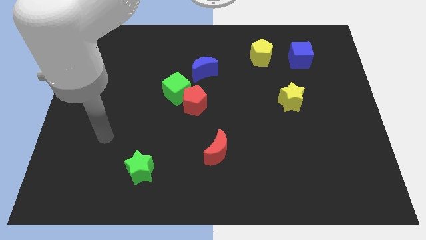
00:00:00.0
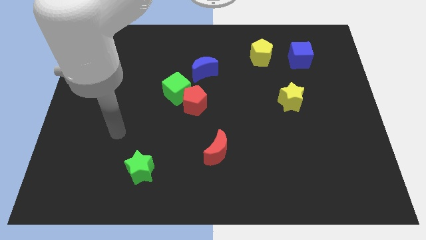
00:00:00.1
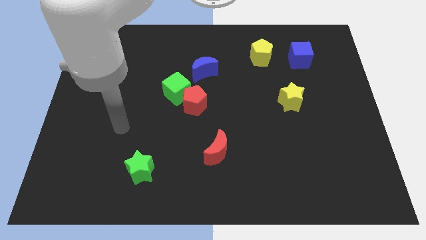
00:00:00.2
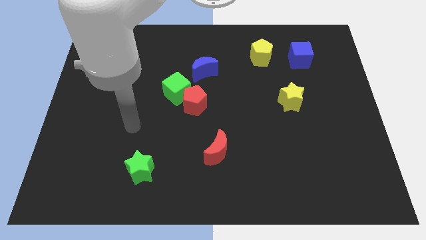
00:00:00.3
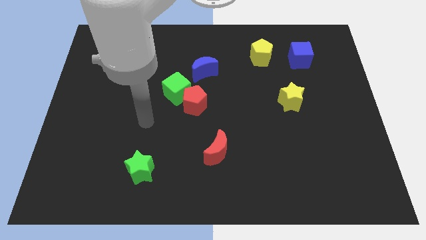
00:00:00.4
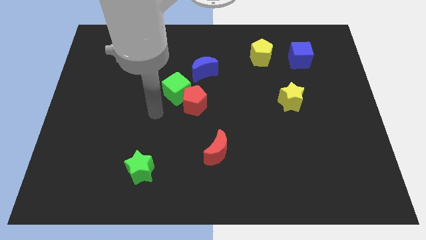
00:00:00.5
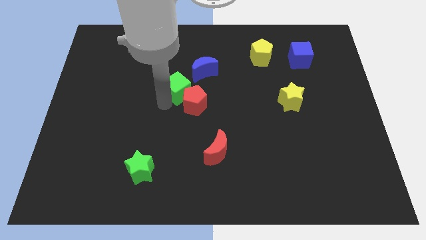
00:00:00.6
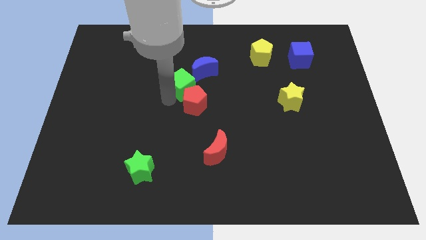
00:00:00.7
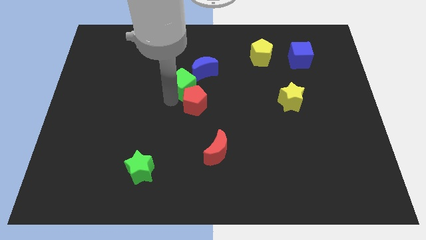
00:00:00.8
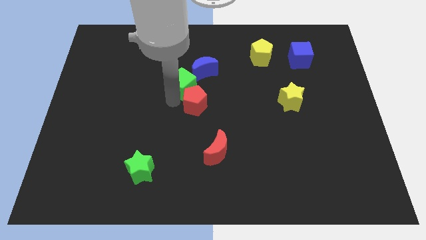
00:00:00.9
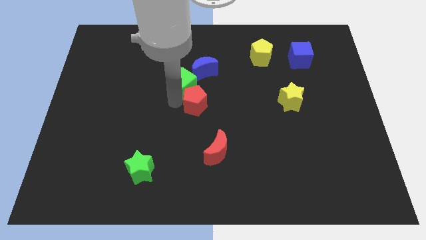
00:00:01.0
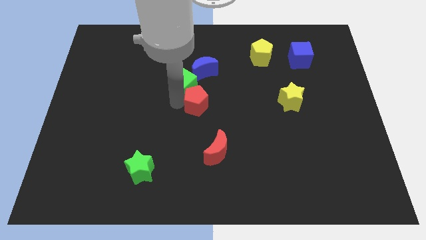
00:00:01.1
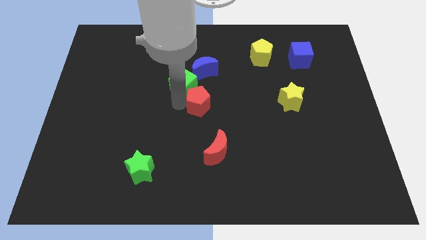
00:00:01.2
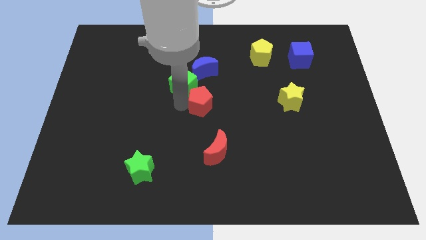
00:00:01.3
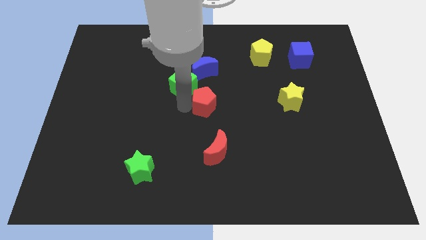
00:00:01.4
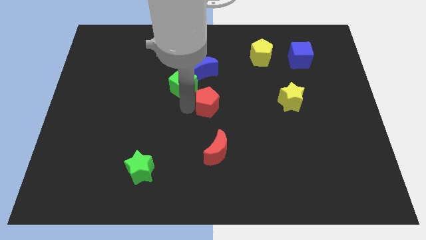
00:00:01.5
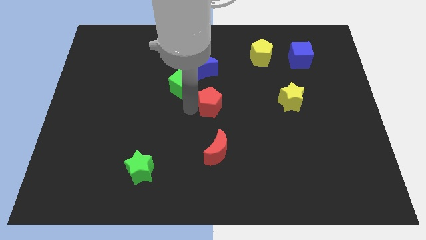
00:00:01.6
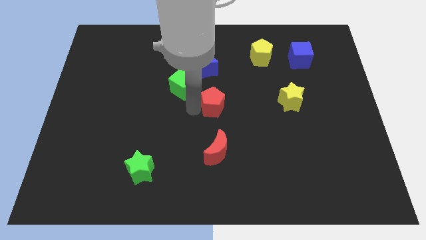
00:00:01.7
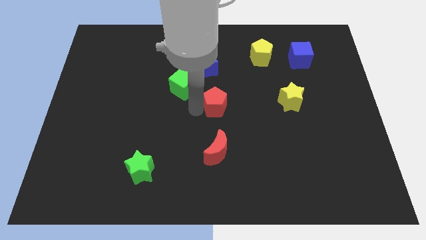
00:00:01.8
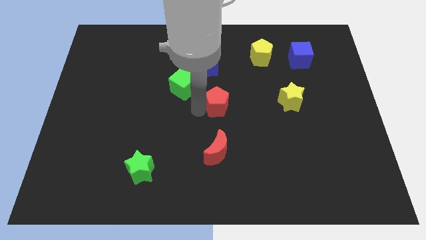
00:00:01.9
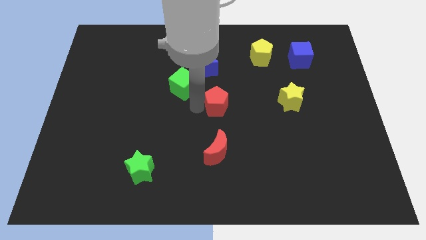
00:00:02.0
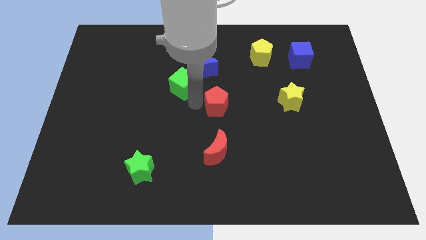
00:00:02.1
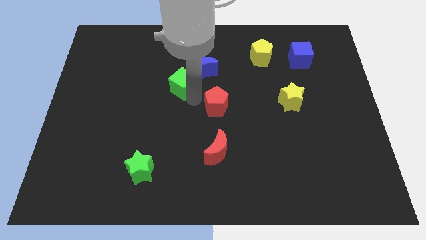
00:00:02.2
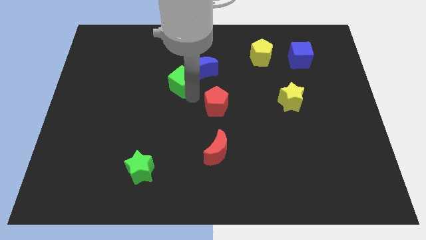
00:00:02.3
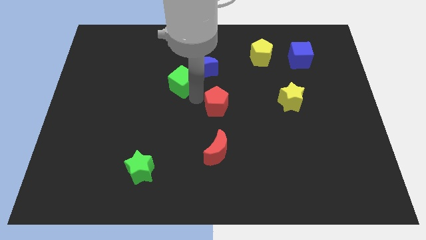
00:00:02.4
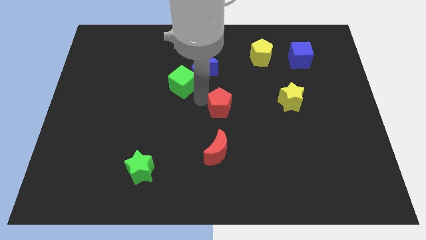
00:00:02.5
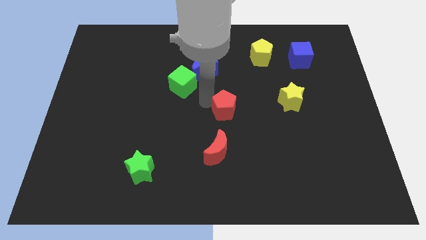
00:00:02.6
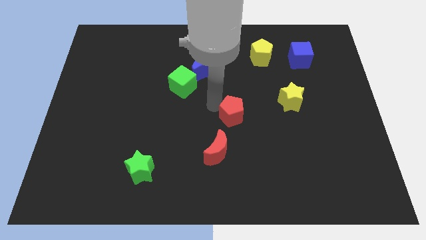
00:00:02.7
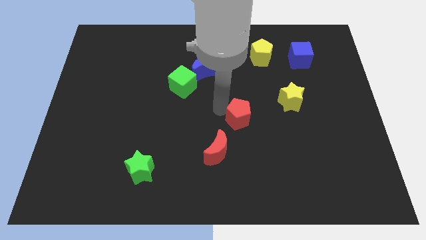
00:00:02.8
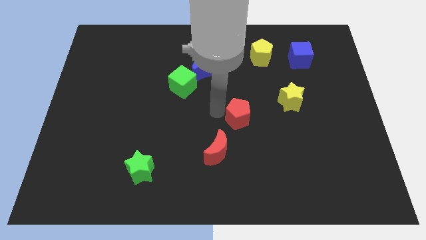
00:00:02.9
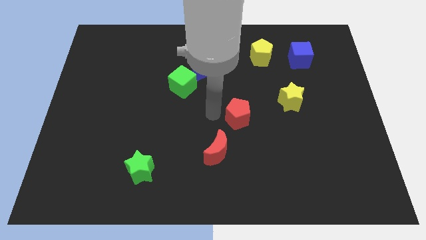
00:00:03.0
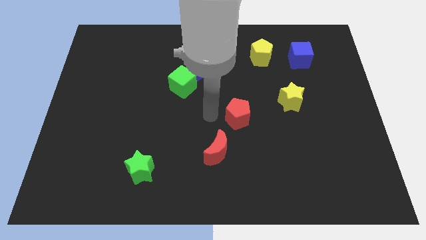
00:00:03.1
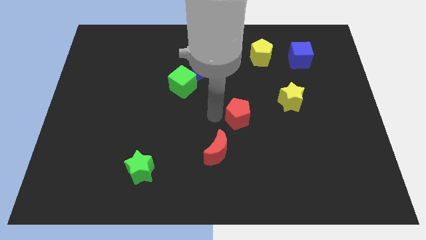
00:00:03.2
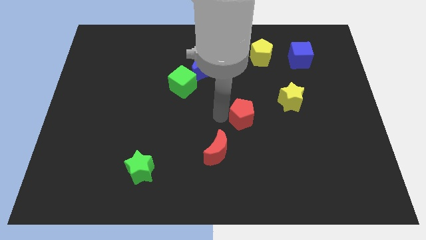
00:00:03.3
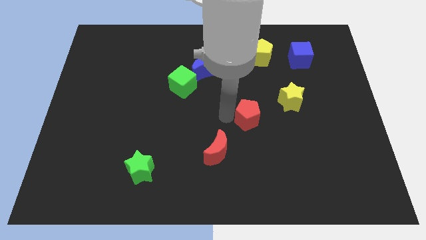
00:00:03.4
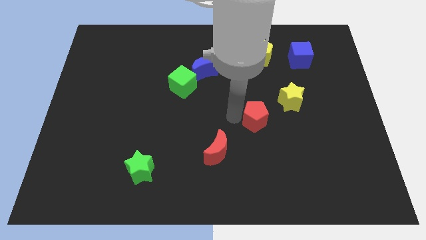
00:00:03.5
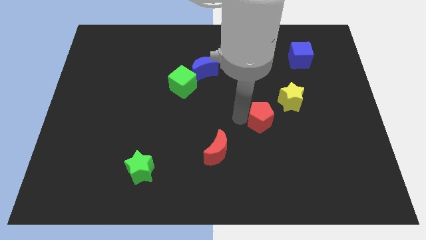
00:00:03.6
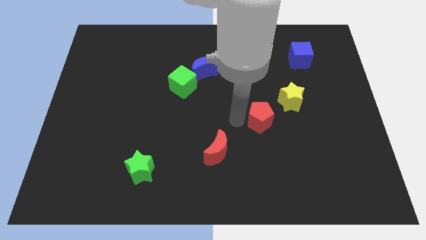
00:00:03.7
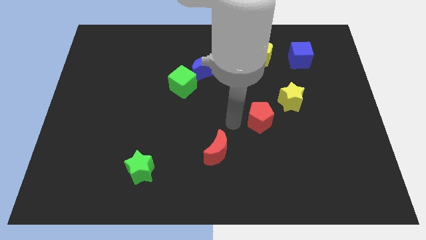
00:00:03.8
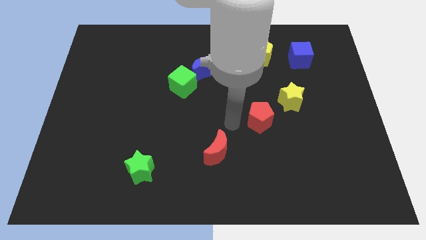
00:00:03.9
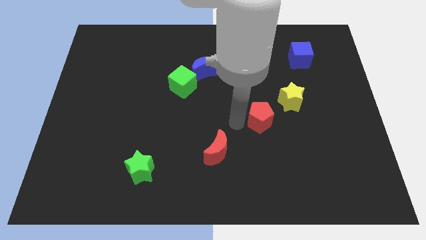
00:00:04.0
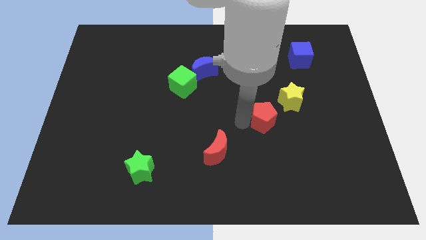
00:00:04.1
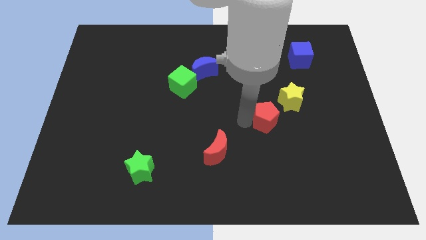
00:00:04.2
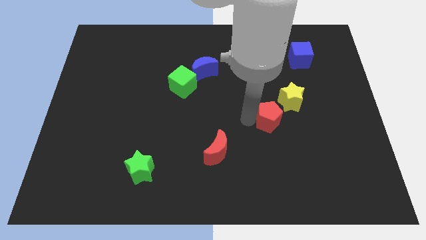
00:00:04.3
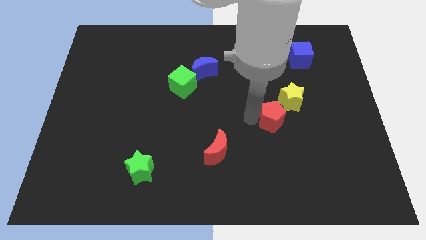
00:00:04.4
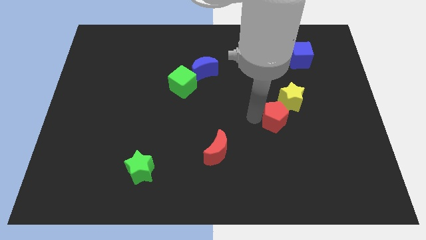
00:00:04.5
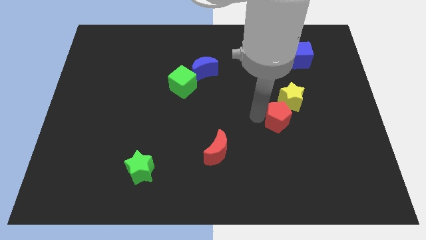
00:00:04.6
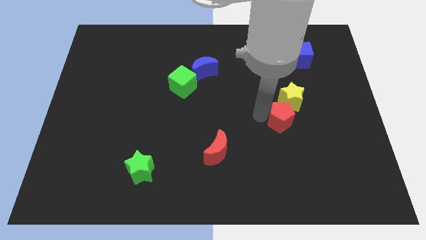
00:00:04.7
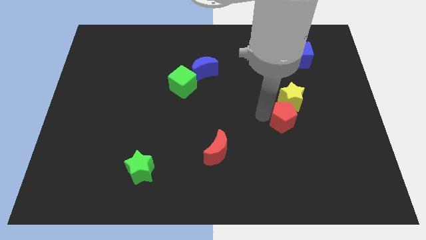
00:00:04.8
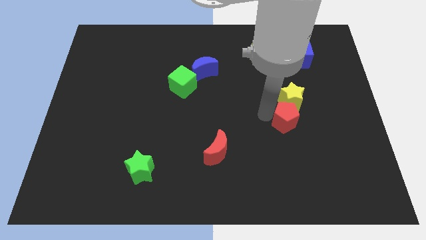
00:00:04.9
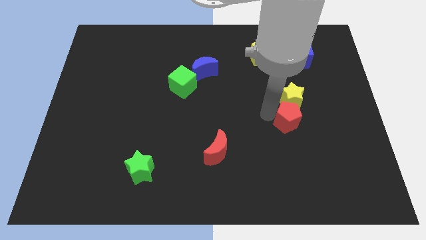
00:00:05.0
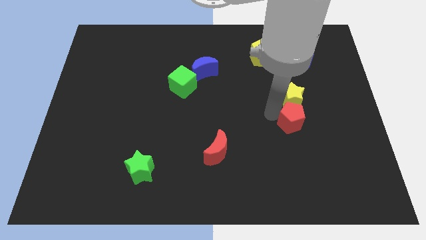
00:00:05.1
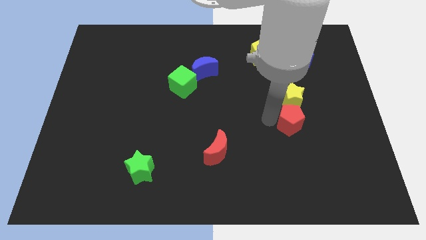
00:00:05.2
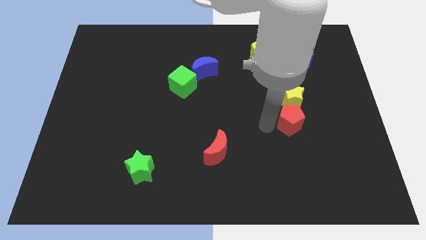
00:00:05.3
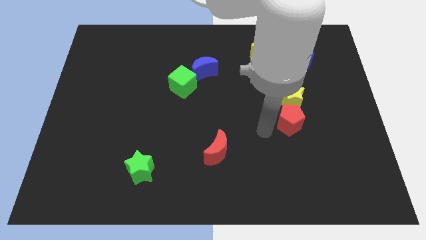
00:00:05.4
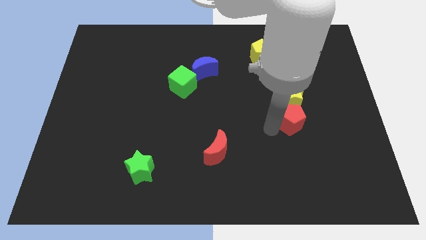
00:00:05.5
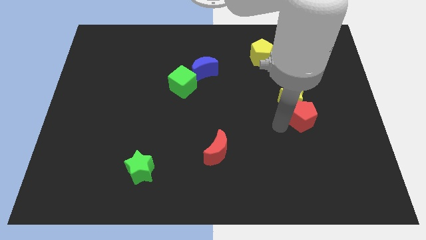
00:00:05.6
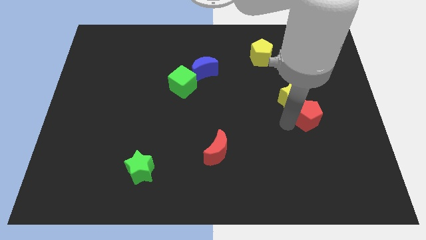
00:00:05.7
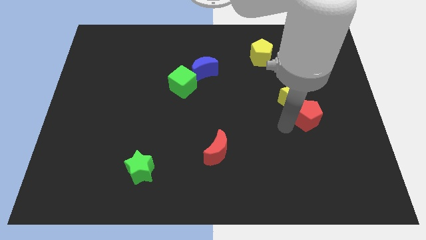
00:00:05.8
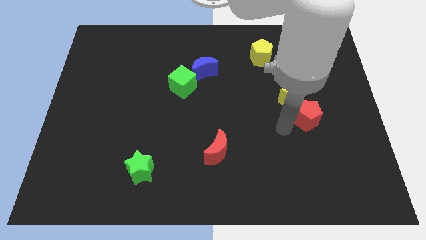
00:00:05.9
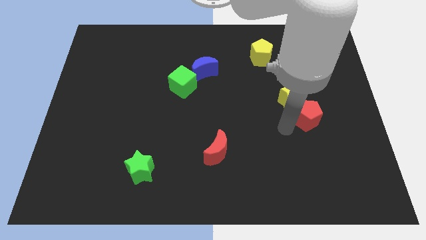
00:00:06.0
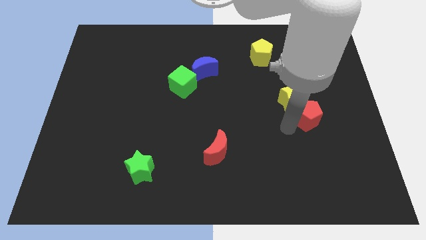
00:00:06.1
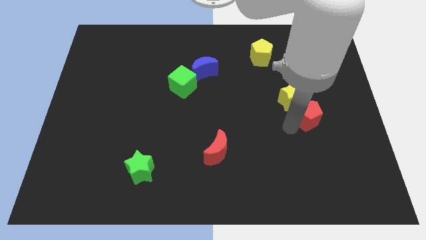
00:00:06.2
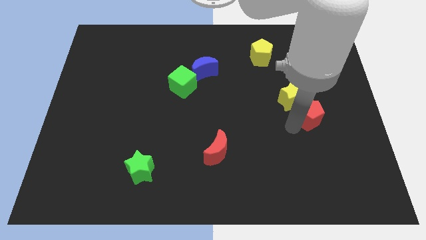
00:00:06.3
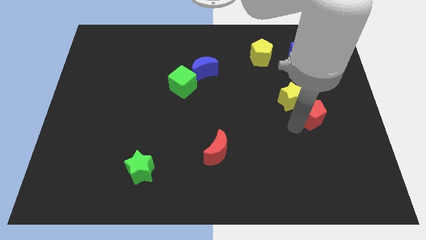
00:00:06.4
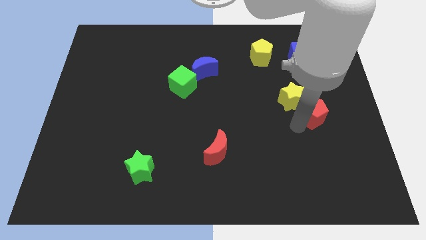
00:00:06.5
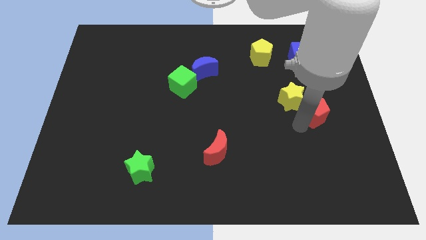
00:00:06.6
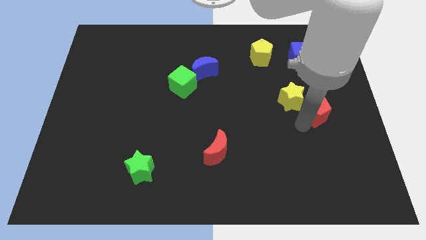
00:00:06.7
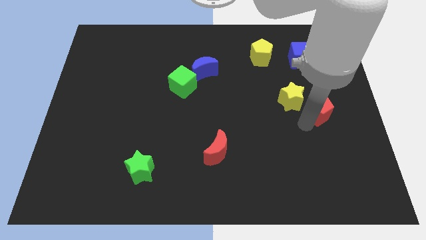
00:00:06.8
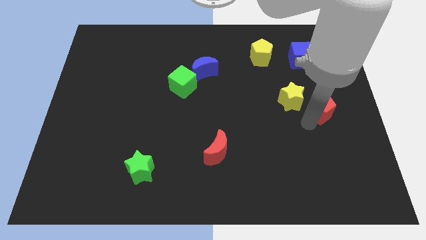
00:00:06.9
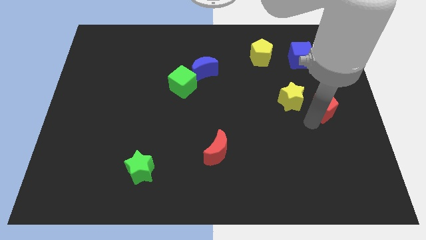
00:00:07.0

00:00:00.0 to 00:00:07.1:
move the red pentagon to the right side
